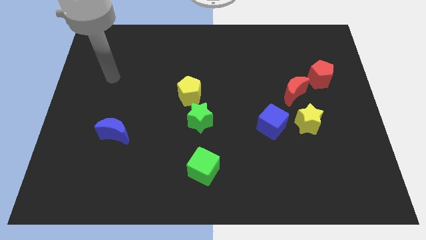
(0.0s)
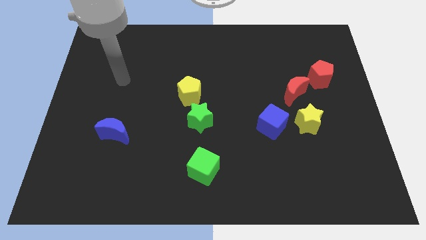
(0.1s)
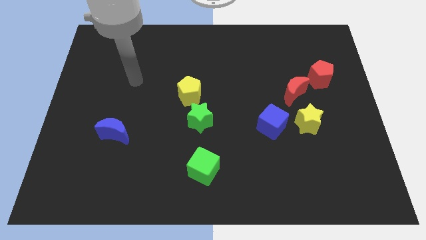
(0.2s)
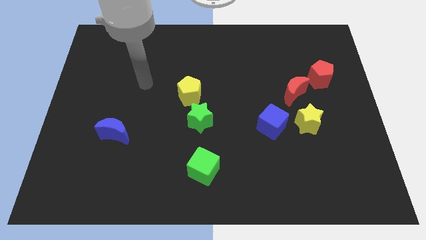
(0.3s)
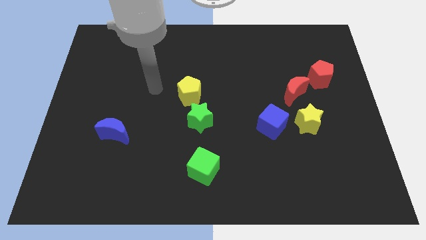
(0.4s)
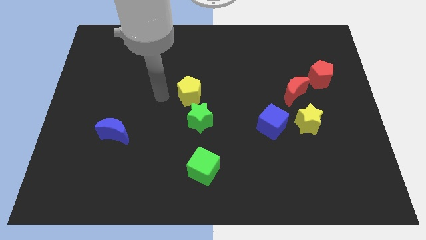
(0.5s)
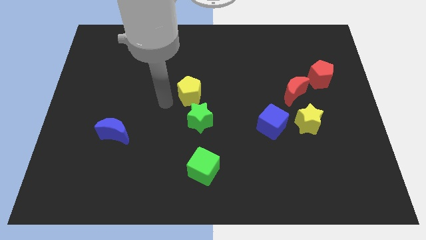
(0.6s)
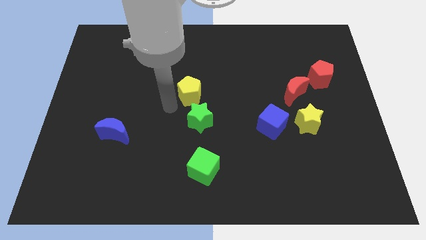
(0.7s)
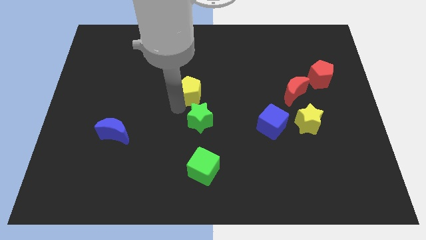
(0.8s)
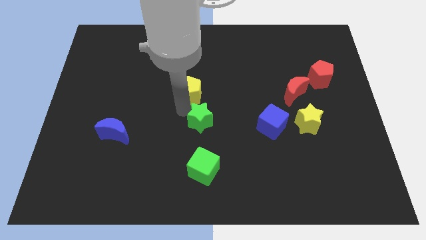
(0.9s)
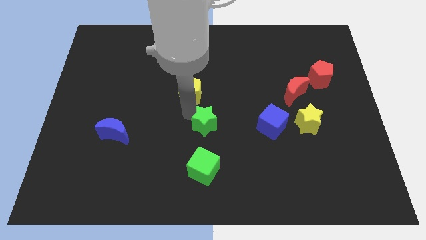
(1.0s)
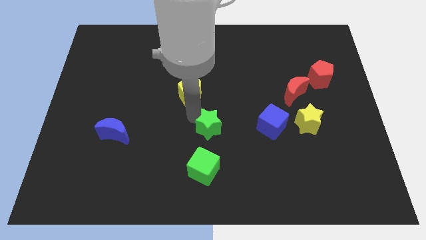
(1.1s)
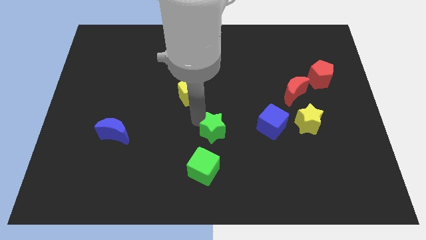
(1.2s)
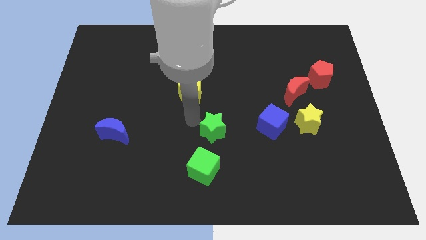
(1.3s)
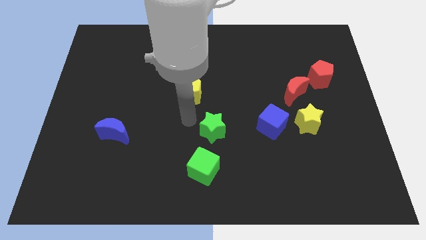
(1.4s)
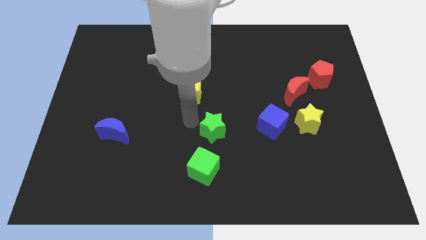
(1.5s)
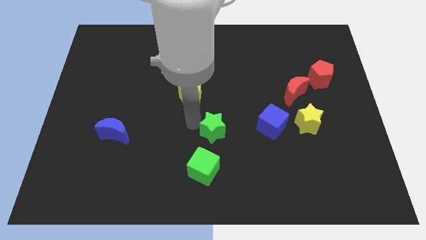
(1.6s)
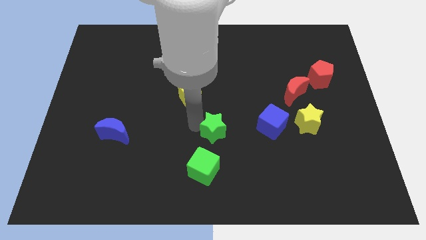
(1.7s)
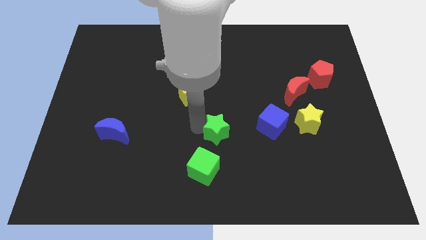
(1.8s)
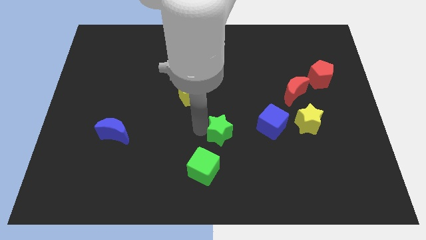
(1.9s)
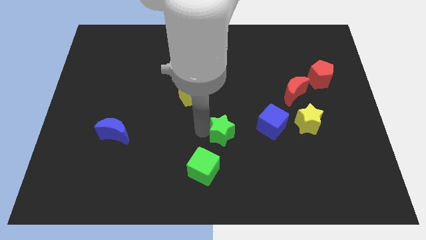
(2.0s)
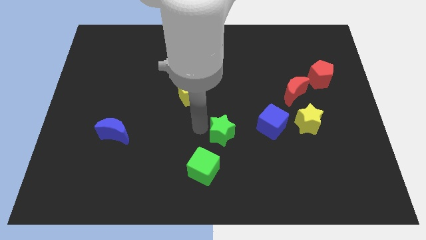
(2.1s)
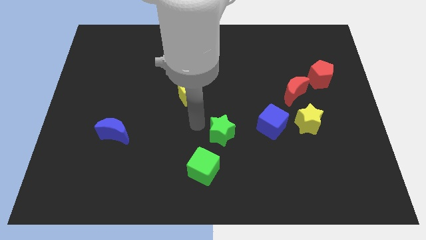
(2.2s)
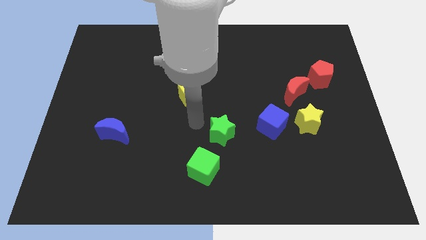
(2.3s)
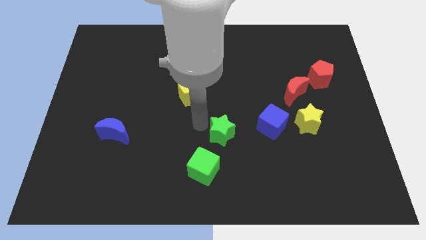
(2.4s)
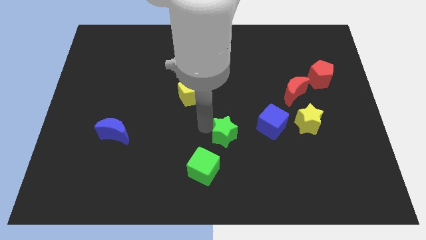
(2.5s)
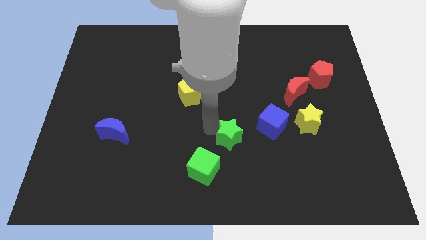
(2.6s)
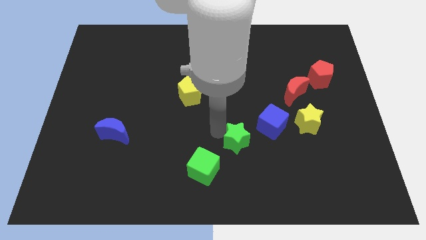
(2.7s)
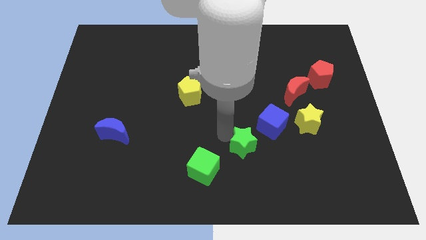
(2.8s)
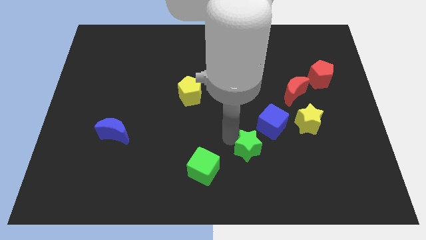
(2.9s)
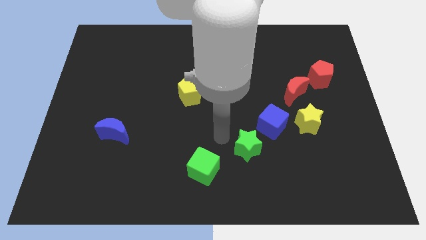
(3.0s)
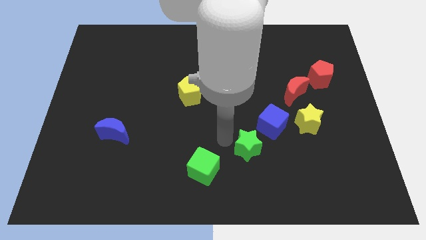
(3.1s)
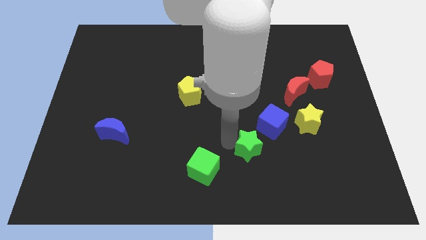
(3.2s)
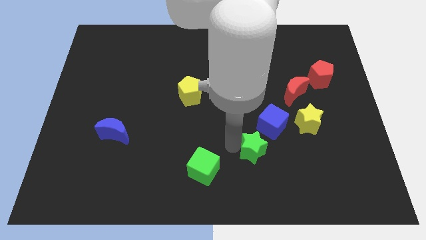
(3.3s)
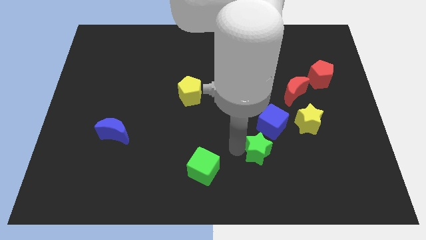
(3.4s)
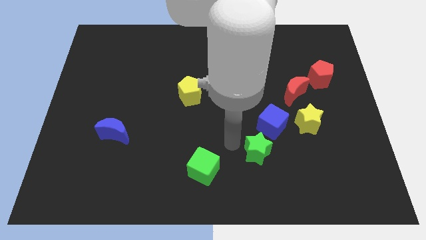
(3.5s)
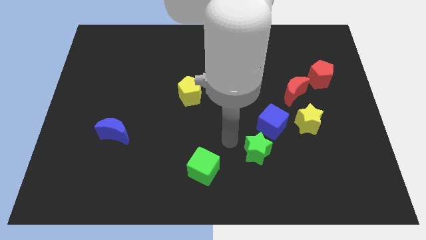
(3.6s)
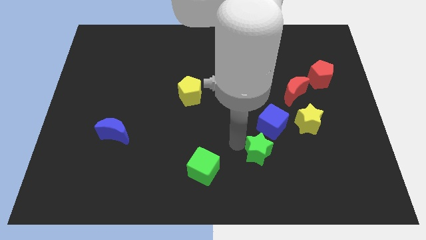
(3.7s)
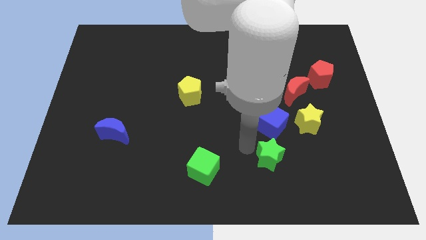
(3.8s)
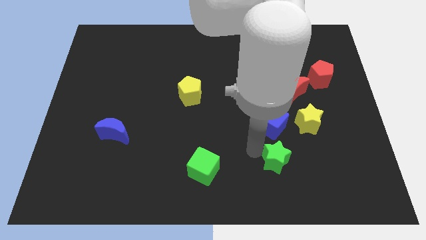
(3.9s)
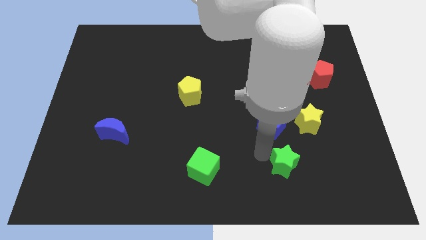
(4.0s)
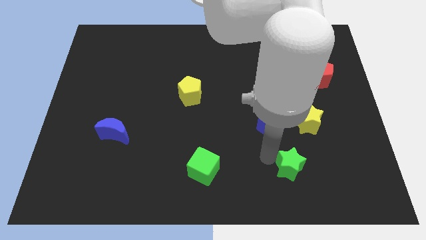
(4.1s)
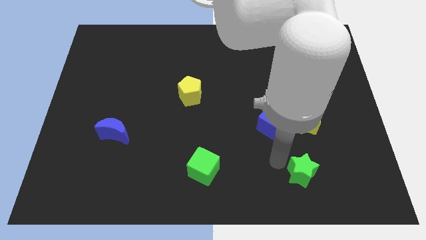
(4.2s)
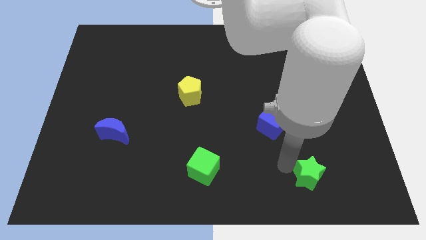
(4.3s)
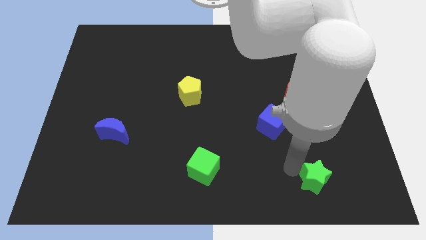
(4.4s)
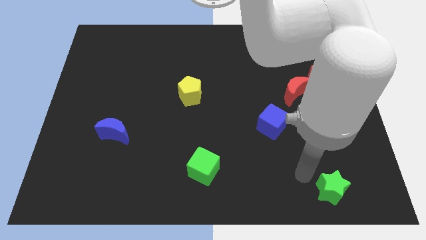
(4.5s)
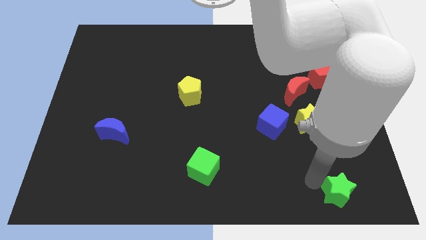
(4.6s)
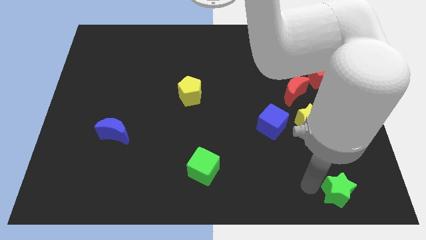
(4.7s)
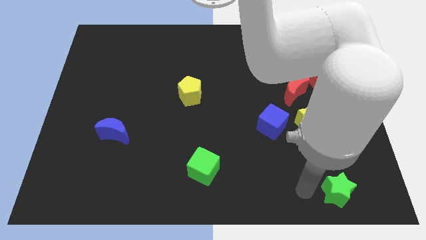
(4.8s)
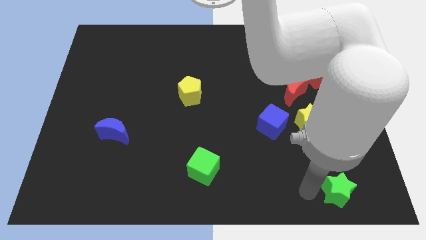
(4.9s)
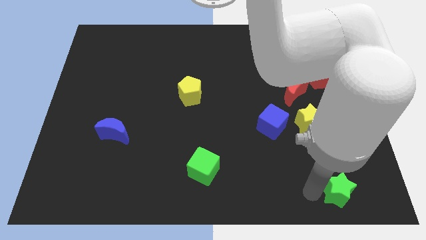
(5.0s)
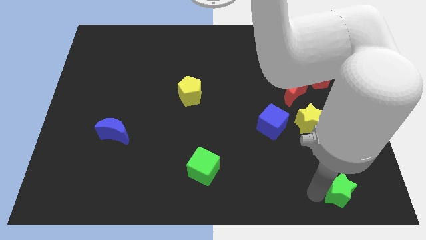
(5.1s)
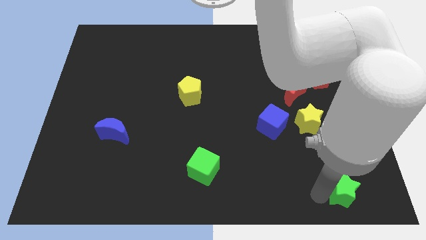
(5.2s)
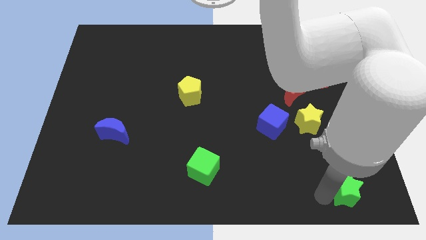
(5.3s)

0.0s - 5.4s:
put the green star to the bottom right corner

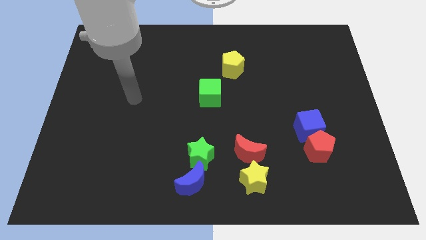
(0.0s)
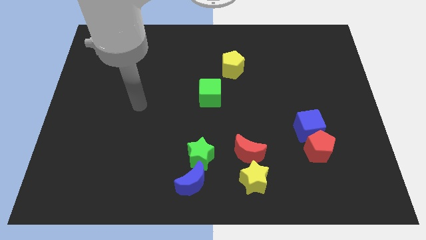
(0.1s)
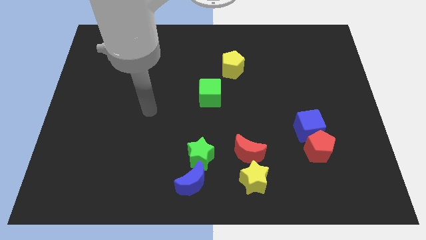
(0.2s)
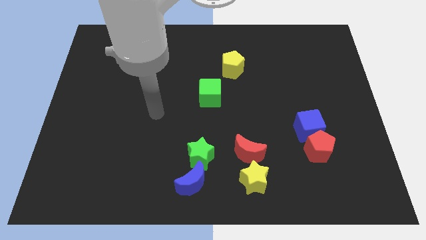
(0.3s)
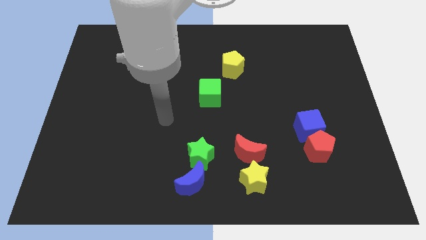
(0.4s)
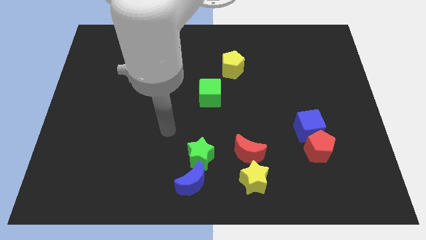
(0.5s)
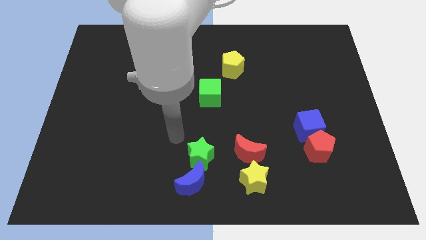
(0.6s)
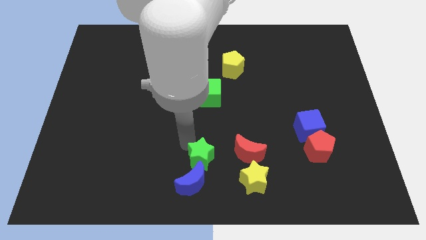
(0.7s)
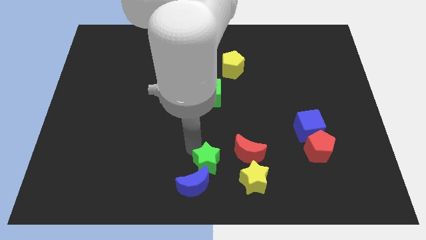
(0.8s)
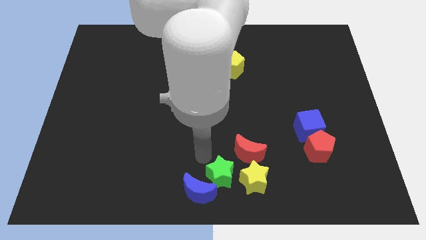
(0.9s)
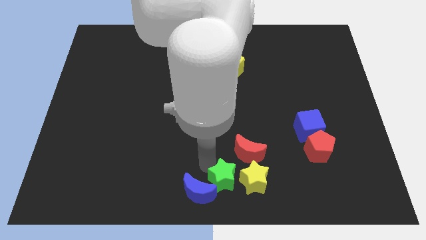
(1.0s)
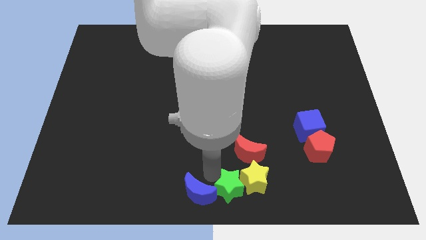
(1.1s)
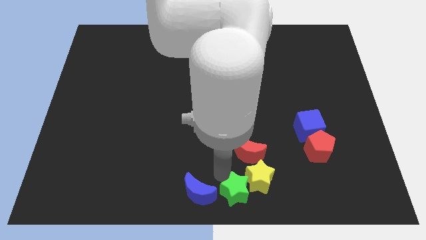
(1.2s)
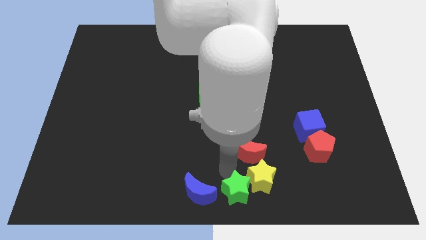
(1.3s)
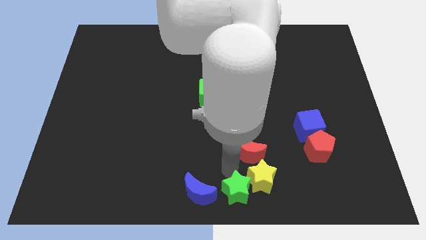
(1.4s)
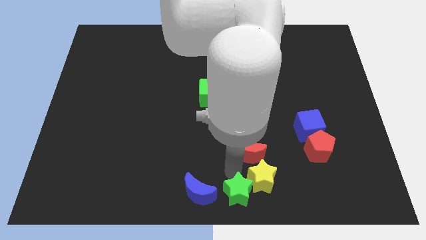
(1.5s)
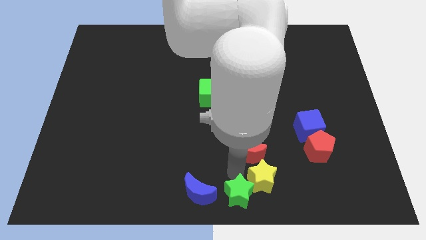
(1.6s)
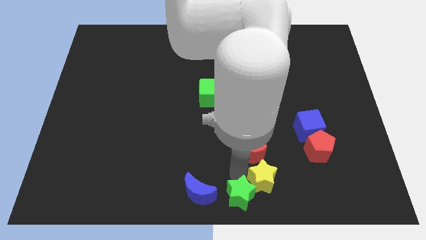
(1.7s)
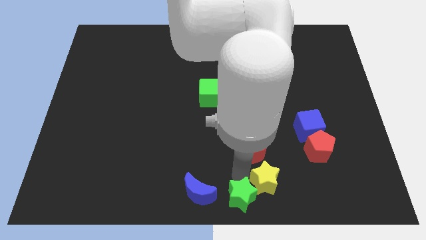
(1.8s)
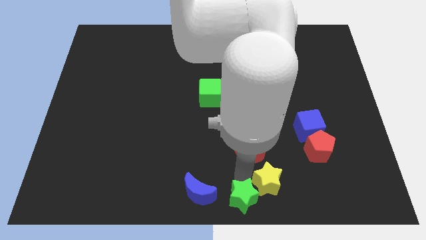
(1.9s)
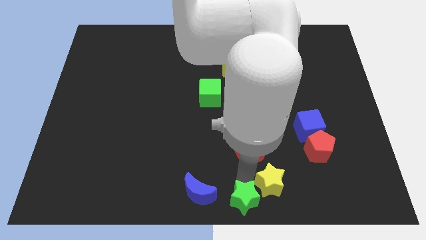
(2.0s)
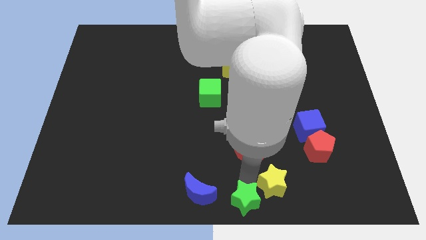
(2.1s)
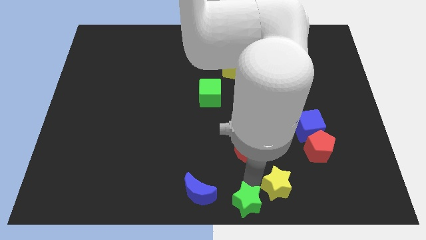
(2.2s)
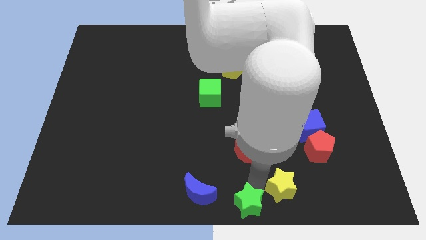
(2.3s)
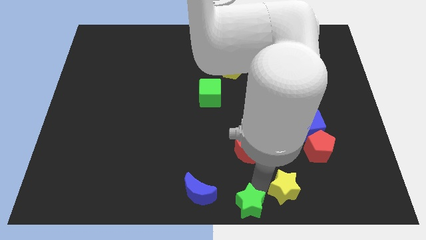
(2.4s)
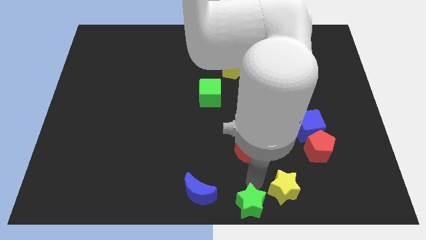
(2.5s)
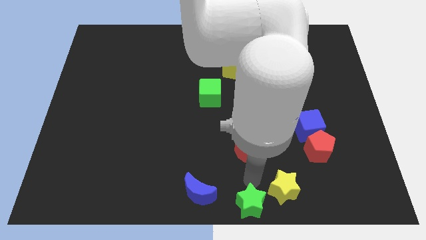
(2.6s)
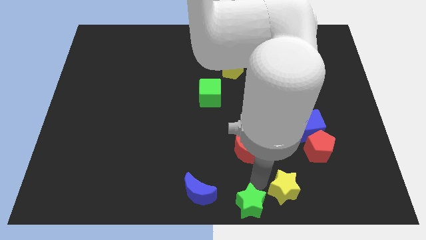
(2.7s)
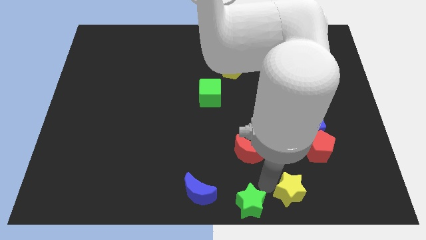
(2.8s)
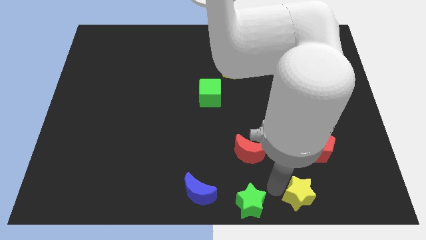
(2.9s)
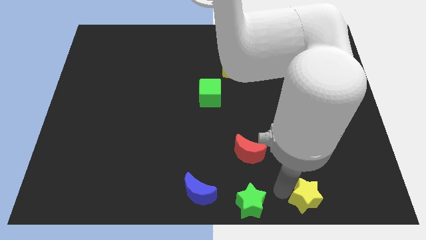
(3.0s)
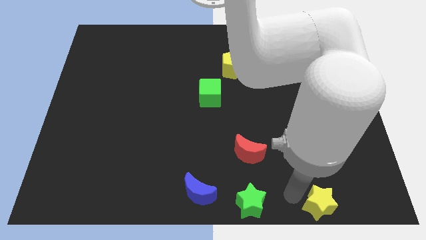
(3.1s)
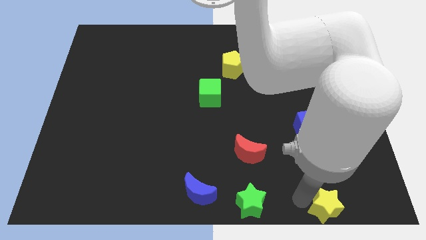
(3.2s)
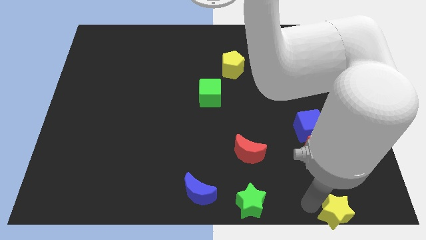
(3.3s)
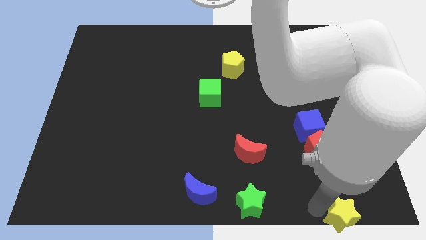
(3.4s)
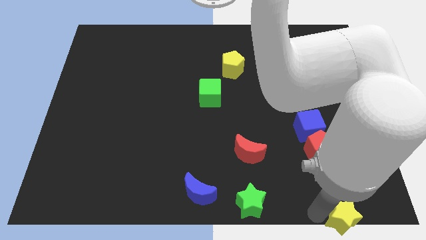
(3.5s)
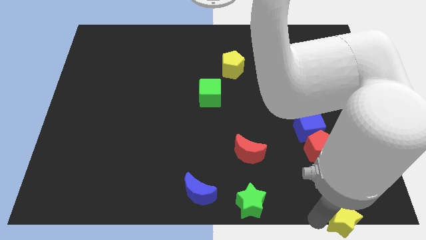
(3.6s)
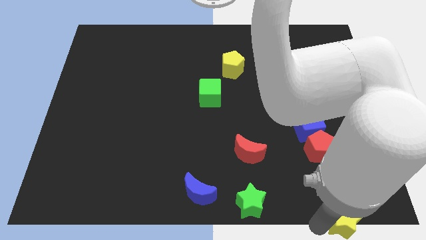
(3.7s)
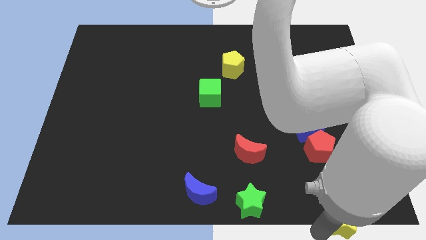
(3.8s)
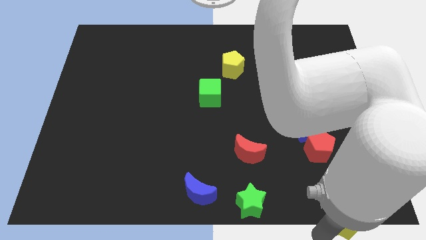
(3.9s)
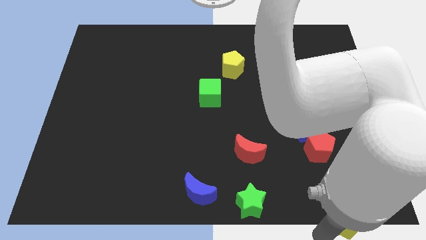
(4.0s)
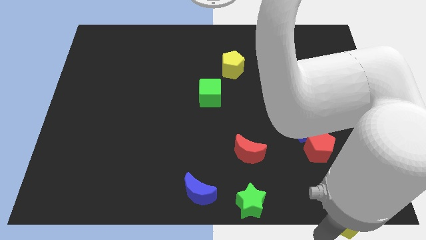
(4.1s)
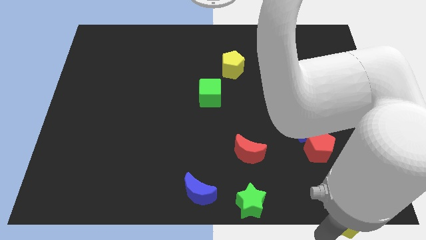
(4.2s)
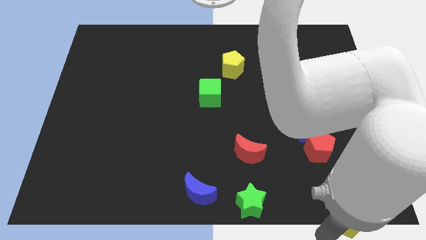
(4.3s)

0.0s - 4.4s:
push the yellow star to the bottom right corner
